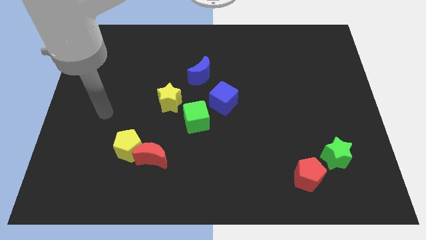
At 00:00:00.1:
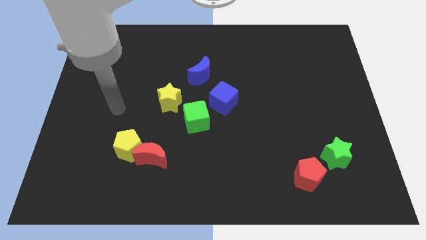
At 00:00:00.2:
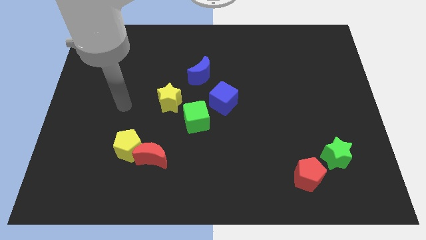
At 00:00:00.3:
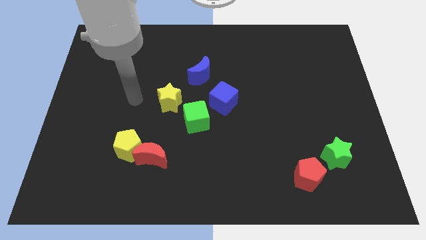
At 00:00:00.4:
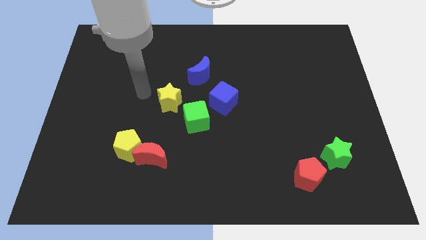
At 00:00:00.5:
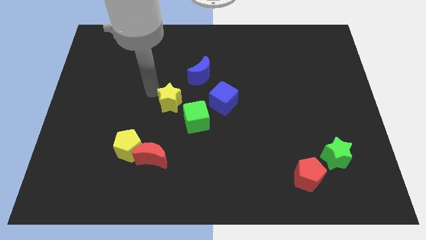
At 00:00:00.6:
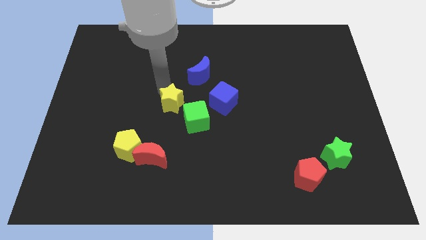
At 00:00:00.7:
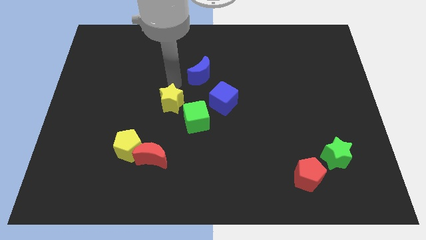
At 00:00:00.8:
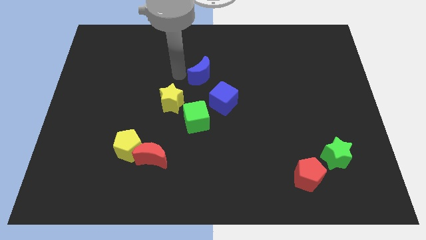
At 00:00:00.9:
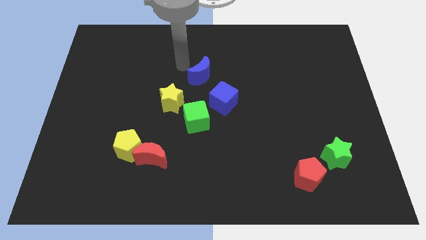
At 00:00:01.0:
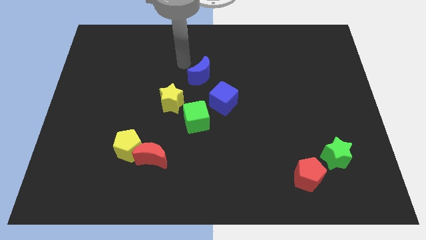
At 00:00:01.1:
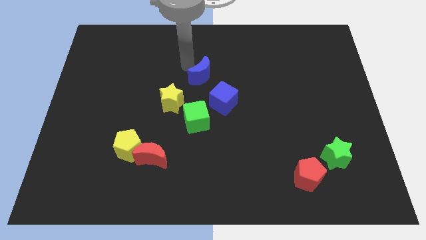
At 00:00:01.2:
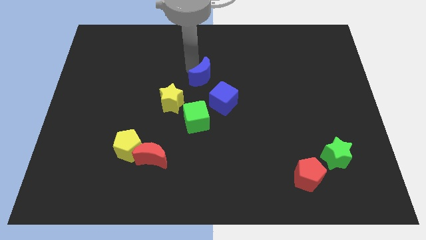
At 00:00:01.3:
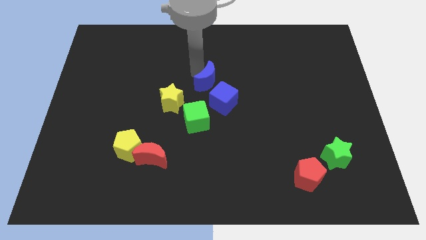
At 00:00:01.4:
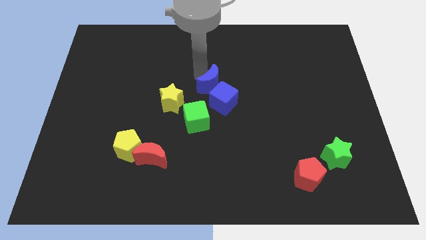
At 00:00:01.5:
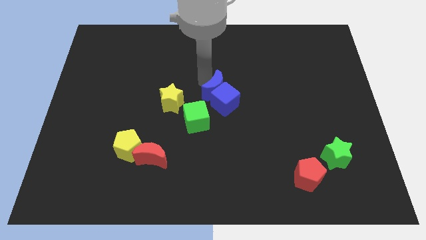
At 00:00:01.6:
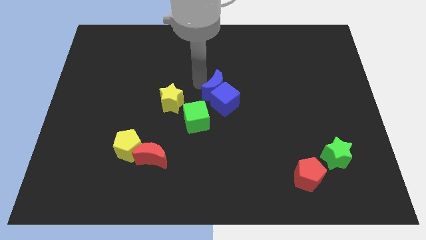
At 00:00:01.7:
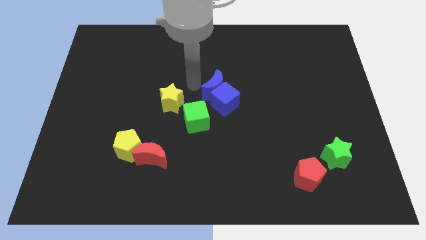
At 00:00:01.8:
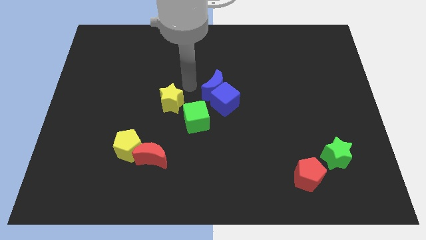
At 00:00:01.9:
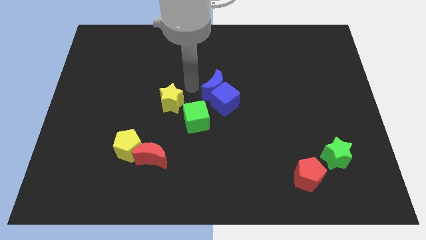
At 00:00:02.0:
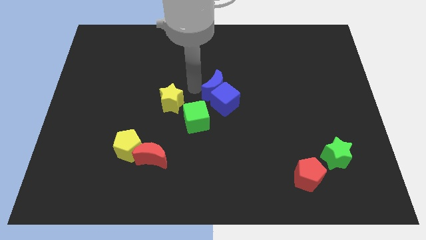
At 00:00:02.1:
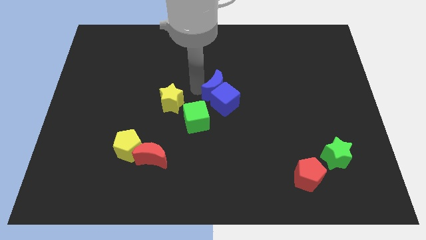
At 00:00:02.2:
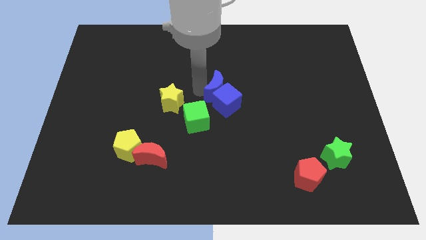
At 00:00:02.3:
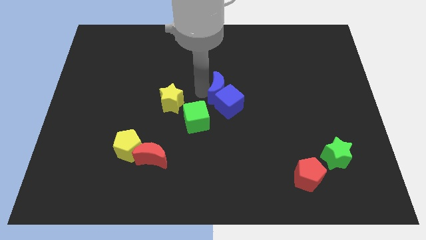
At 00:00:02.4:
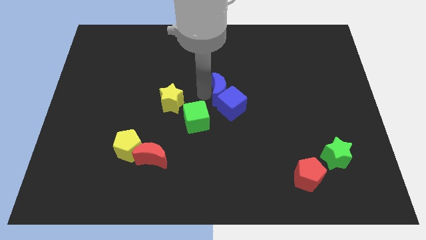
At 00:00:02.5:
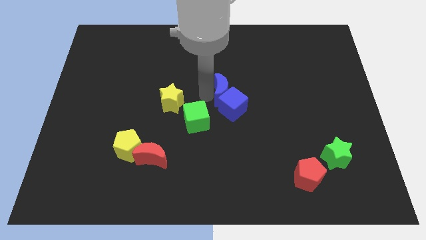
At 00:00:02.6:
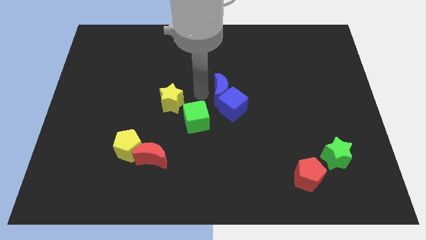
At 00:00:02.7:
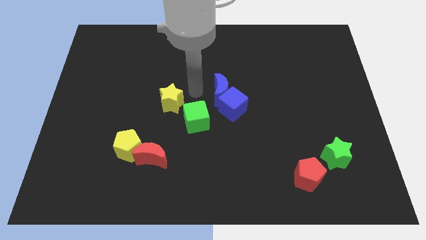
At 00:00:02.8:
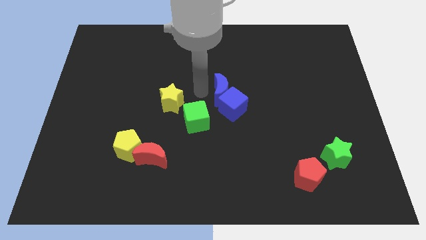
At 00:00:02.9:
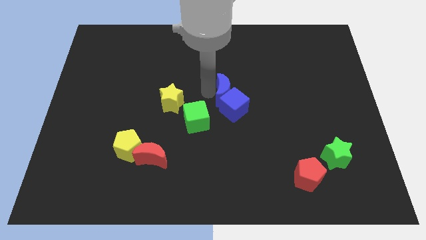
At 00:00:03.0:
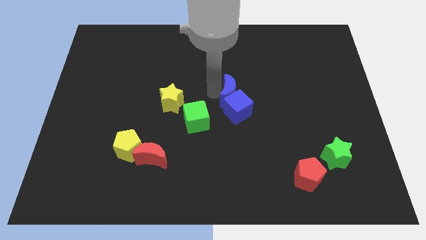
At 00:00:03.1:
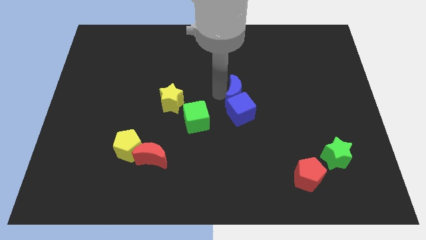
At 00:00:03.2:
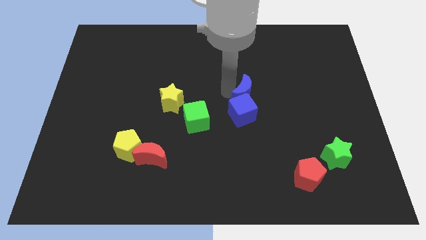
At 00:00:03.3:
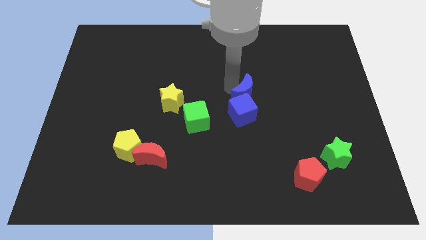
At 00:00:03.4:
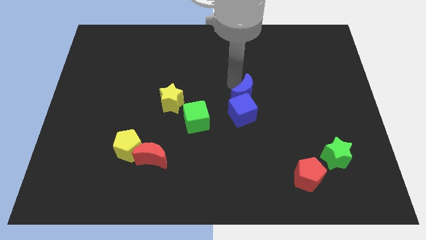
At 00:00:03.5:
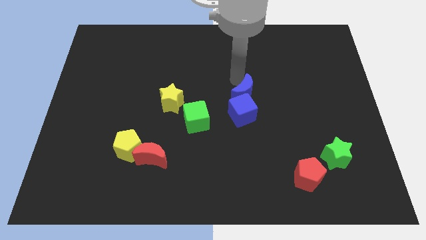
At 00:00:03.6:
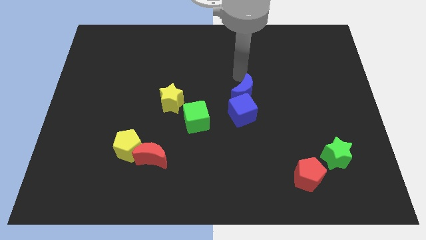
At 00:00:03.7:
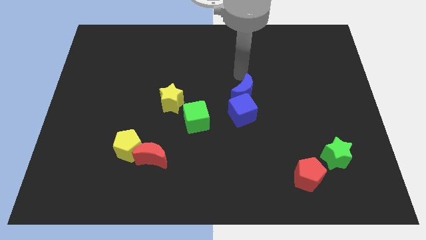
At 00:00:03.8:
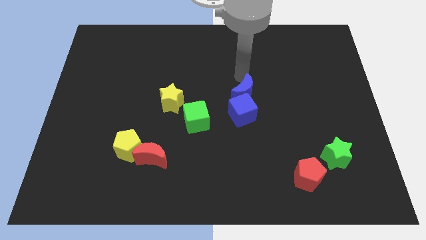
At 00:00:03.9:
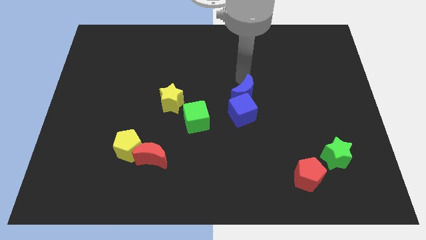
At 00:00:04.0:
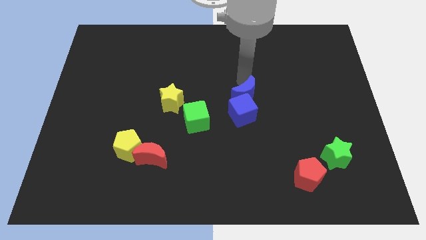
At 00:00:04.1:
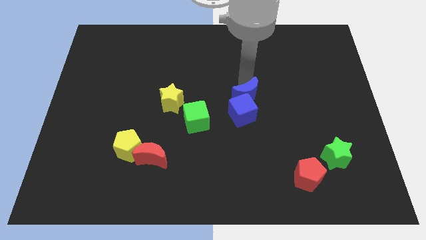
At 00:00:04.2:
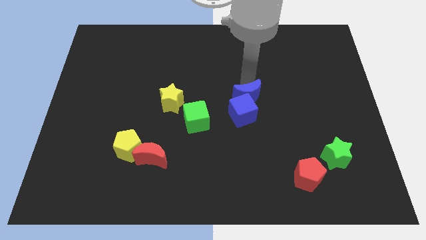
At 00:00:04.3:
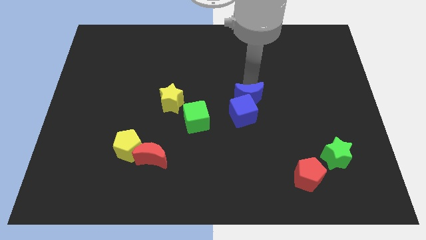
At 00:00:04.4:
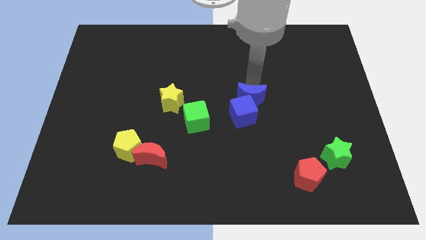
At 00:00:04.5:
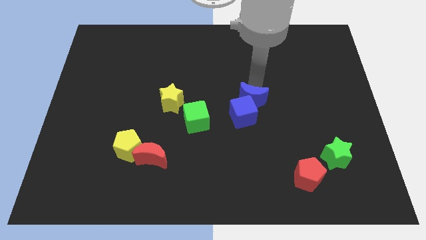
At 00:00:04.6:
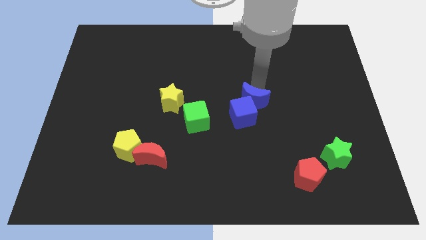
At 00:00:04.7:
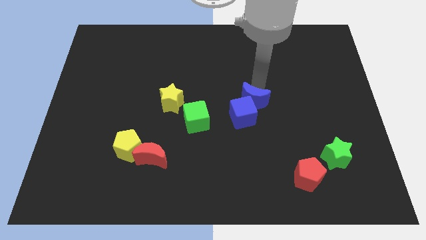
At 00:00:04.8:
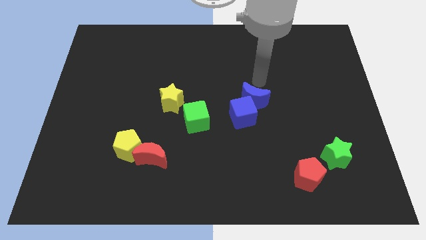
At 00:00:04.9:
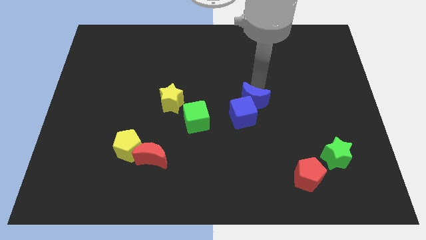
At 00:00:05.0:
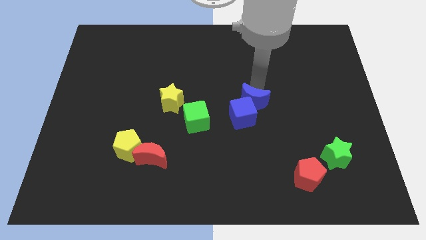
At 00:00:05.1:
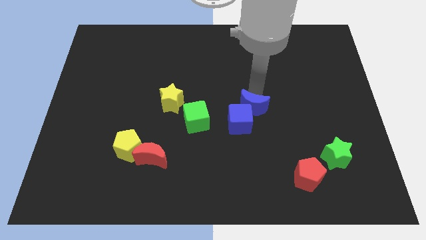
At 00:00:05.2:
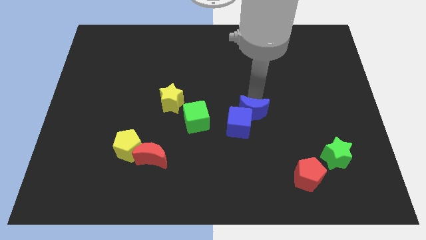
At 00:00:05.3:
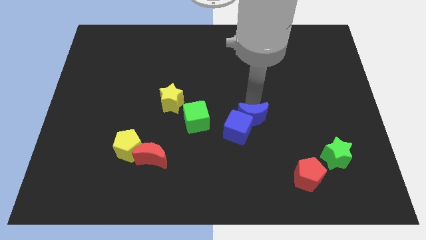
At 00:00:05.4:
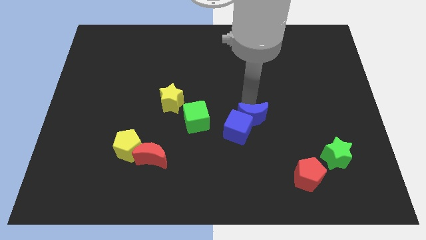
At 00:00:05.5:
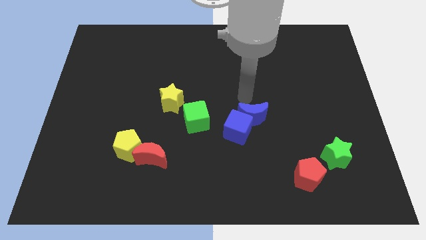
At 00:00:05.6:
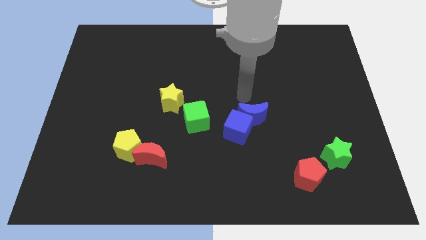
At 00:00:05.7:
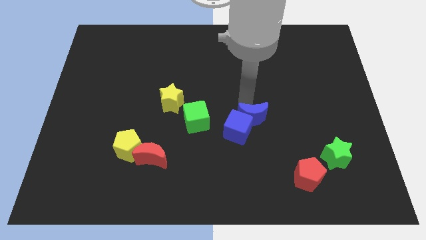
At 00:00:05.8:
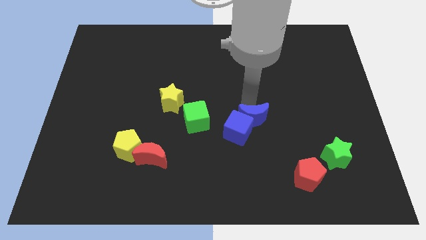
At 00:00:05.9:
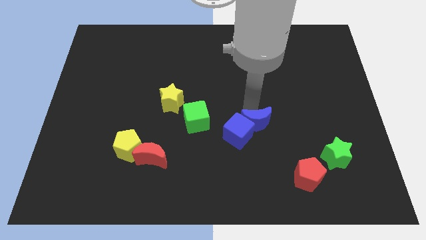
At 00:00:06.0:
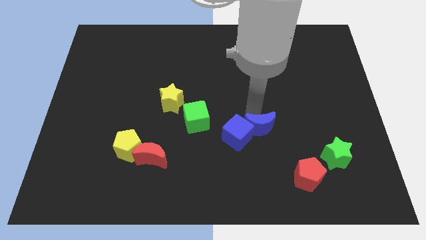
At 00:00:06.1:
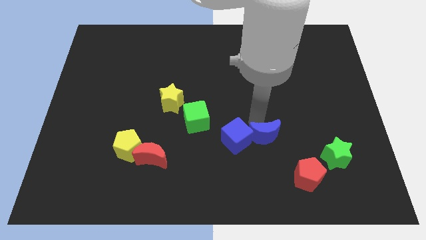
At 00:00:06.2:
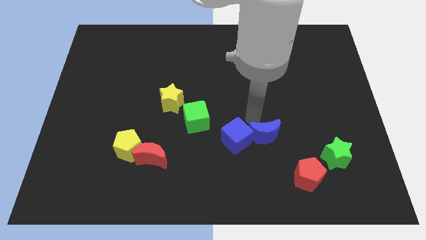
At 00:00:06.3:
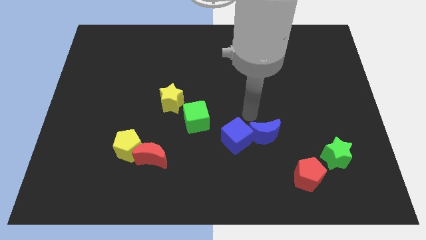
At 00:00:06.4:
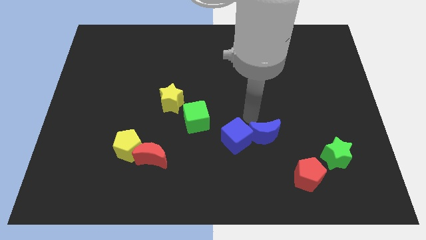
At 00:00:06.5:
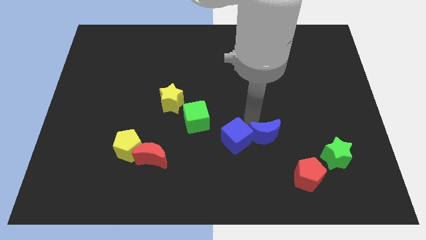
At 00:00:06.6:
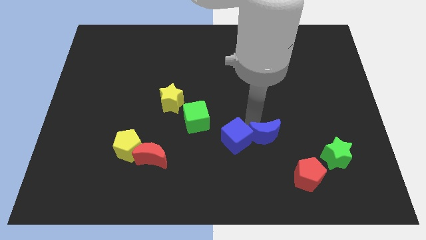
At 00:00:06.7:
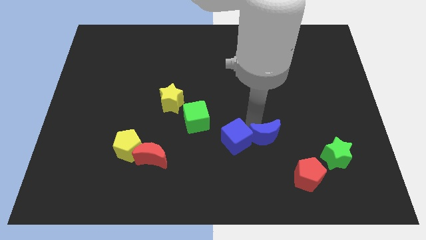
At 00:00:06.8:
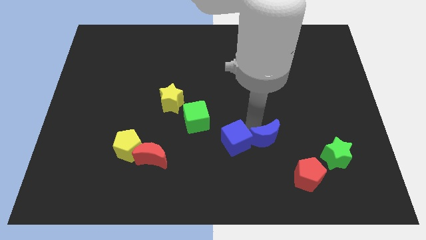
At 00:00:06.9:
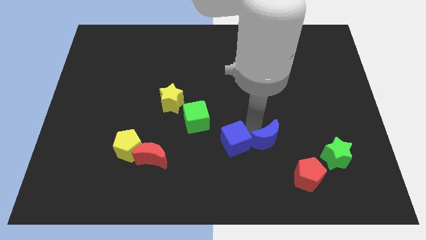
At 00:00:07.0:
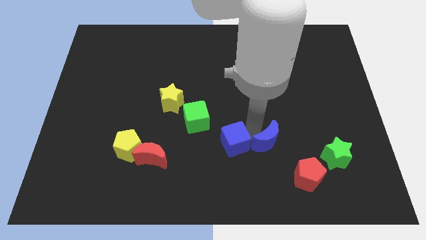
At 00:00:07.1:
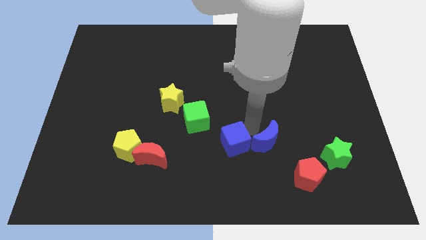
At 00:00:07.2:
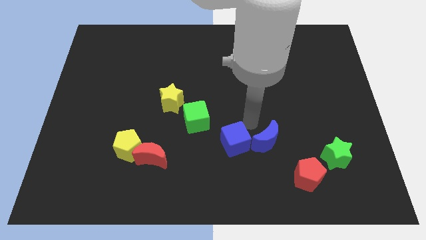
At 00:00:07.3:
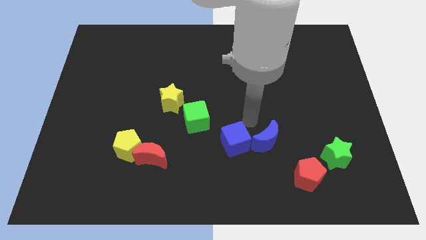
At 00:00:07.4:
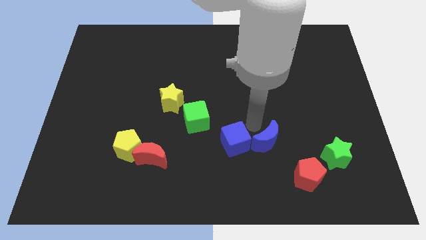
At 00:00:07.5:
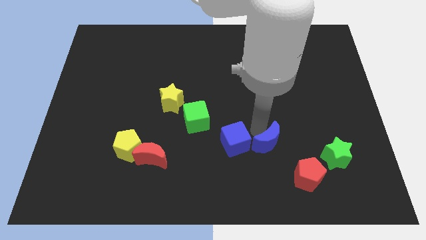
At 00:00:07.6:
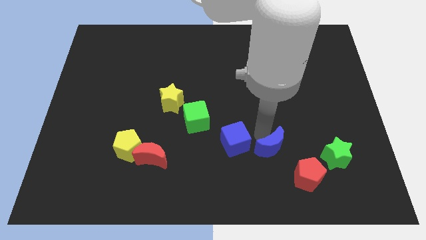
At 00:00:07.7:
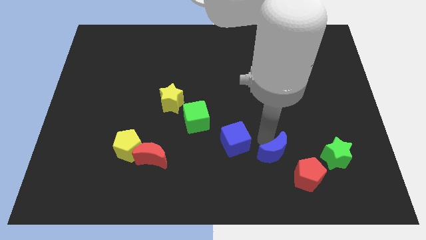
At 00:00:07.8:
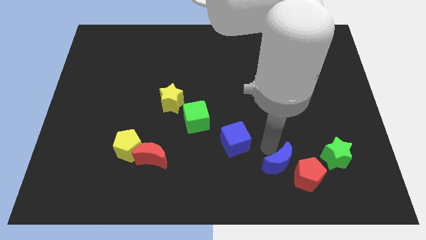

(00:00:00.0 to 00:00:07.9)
move the blue moon close to the red pentagon
